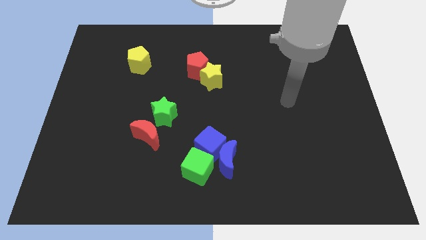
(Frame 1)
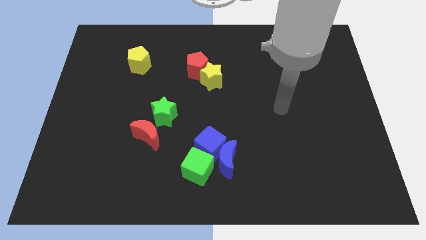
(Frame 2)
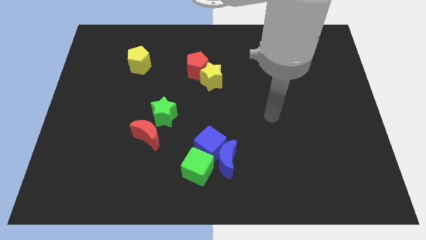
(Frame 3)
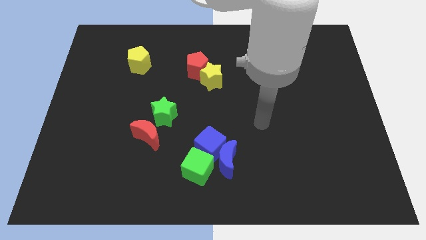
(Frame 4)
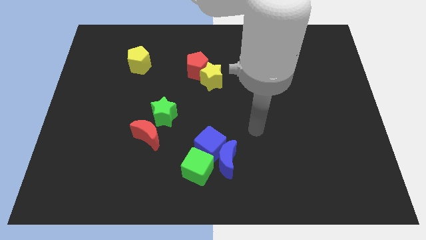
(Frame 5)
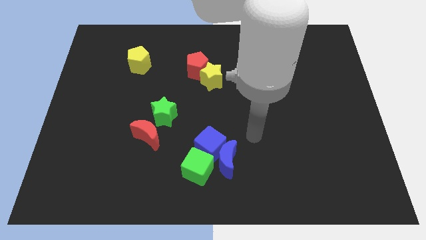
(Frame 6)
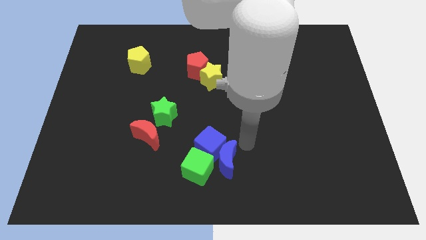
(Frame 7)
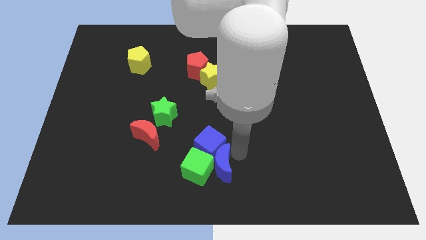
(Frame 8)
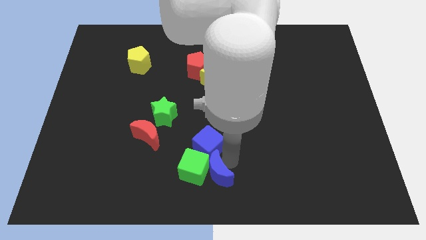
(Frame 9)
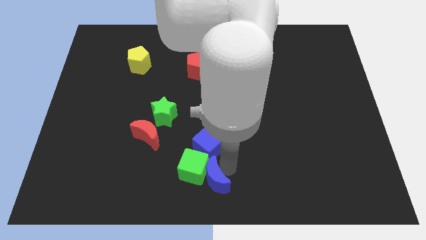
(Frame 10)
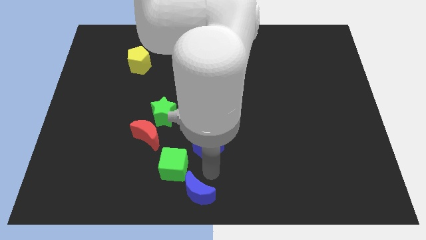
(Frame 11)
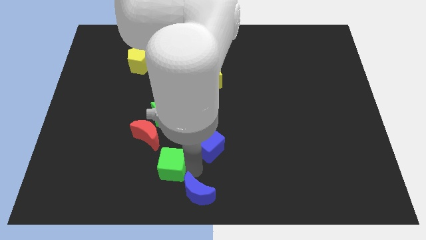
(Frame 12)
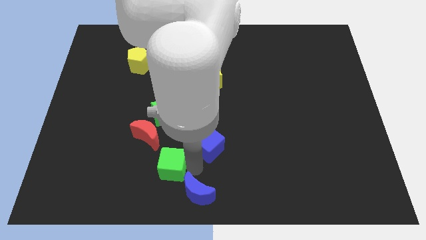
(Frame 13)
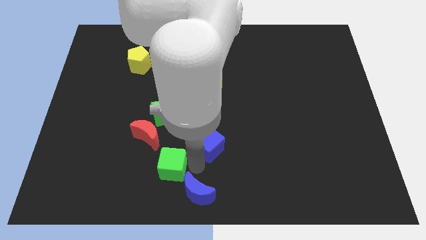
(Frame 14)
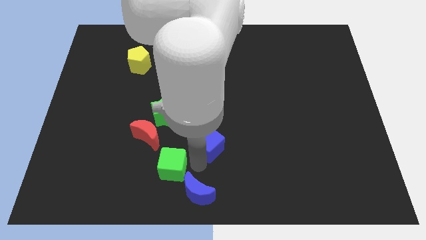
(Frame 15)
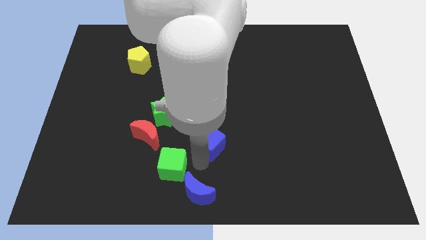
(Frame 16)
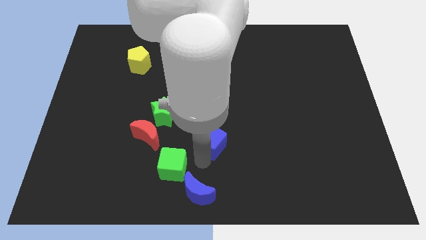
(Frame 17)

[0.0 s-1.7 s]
move the blue cube away from the blue moon and green cube

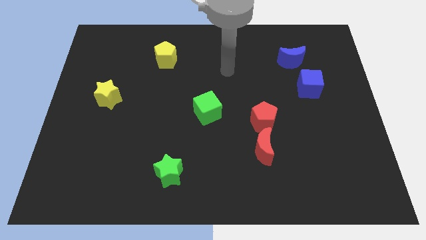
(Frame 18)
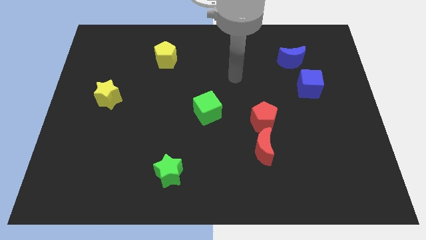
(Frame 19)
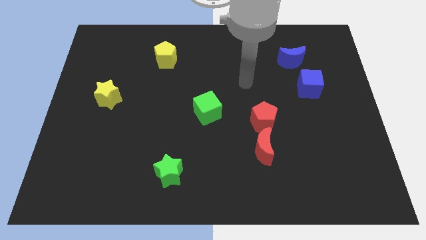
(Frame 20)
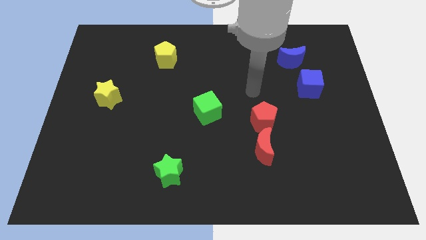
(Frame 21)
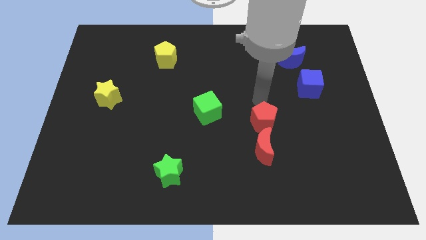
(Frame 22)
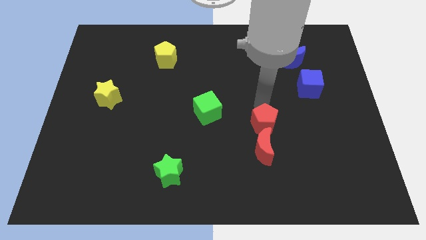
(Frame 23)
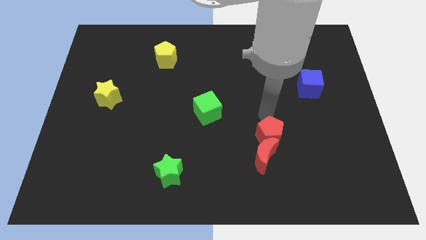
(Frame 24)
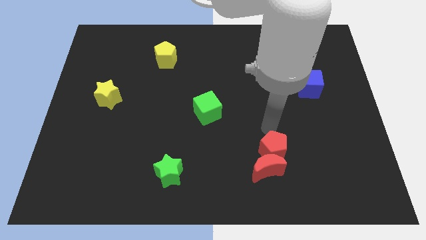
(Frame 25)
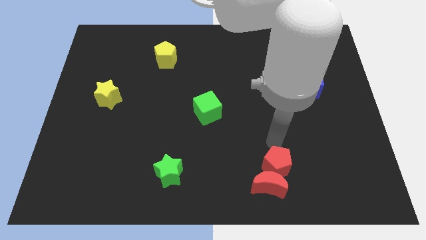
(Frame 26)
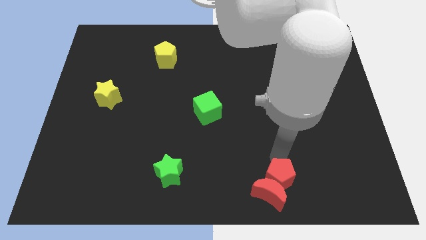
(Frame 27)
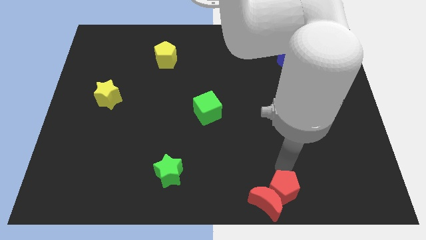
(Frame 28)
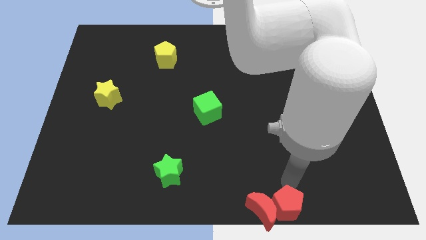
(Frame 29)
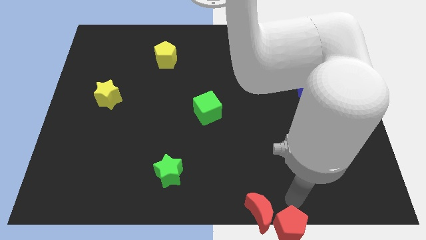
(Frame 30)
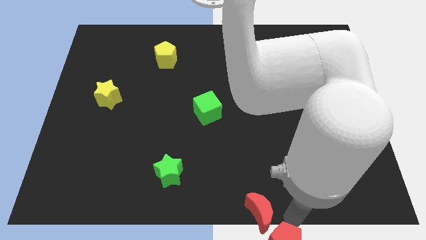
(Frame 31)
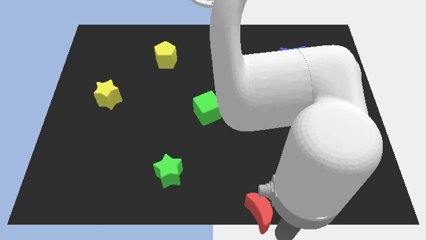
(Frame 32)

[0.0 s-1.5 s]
pull the red moon apart from the red pentagon

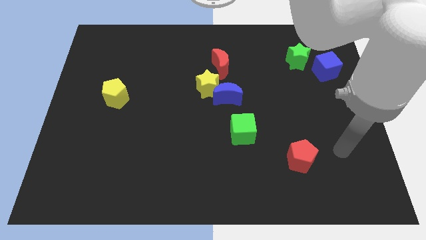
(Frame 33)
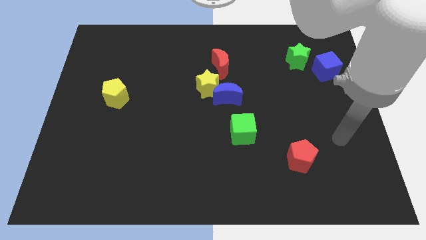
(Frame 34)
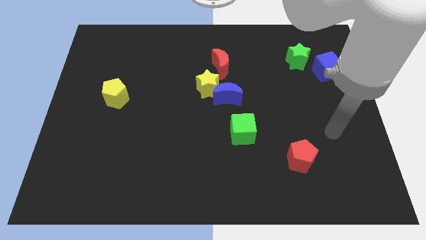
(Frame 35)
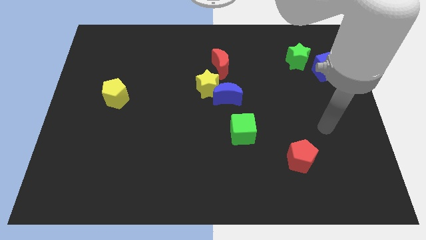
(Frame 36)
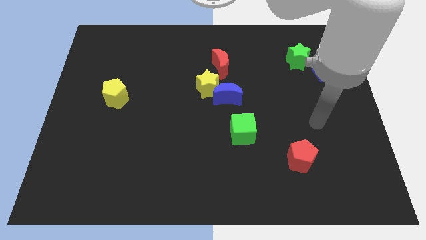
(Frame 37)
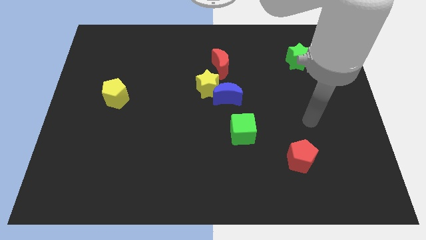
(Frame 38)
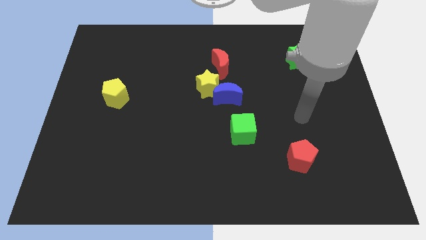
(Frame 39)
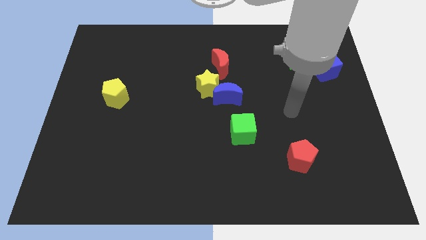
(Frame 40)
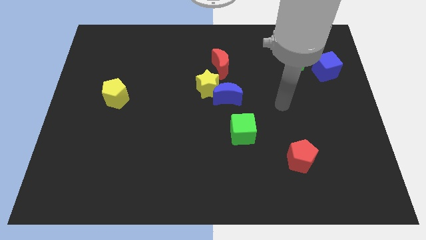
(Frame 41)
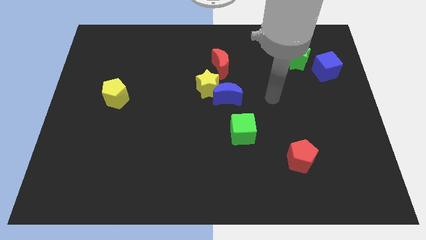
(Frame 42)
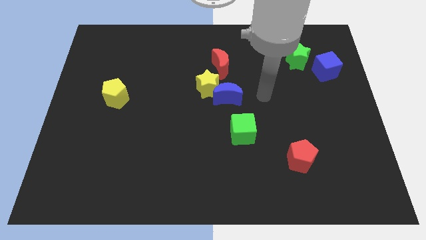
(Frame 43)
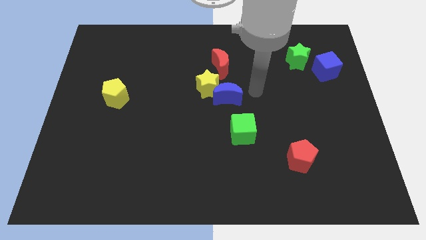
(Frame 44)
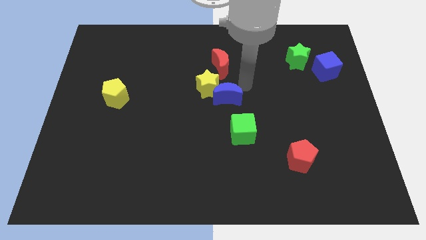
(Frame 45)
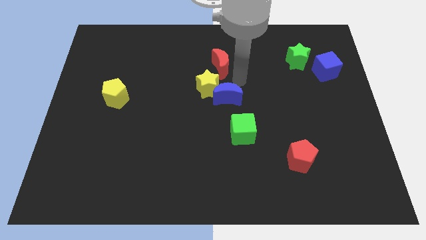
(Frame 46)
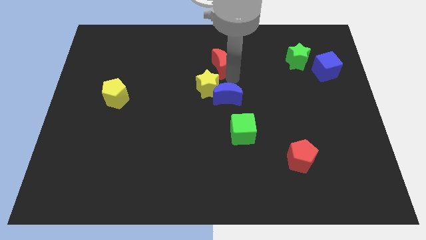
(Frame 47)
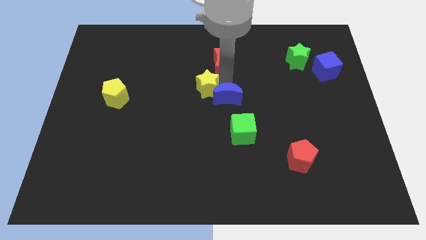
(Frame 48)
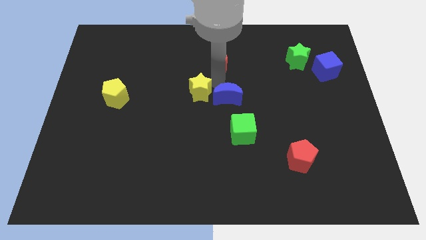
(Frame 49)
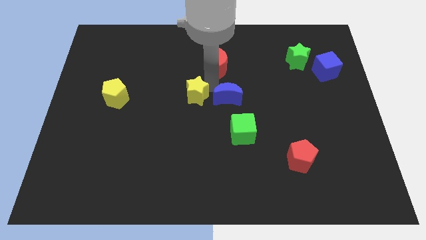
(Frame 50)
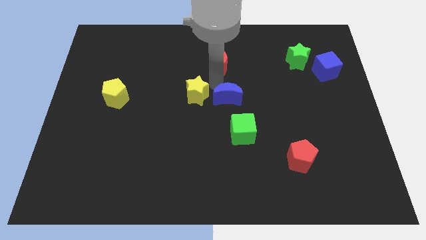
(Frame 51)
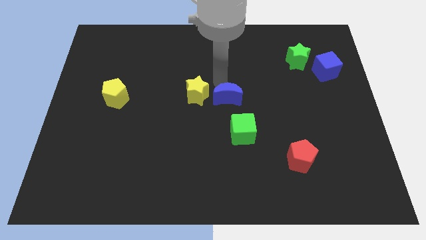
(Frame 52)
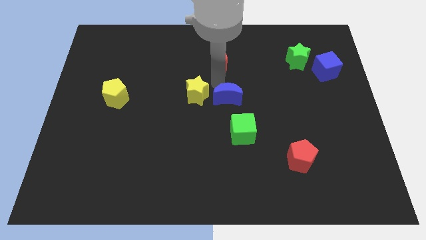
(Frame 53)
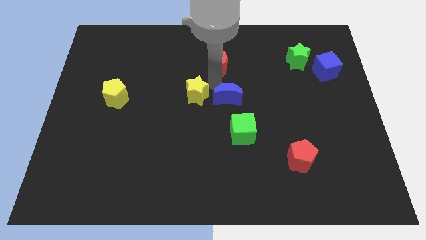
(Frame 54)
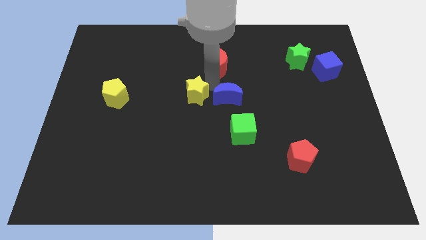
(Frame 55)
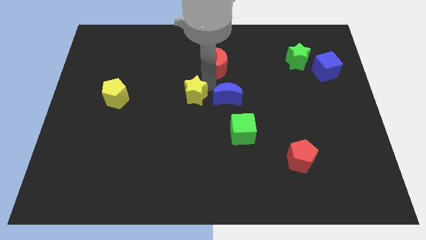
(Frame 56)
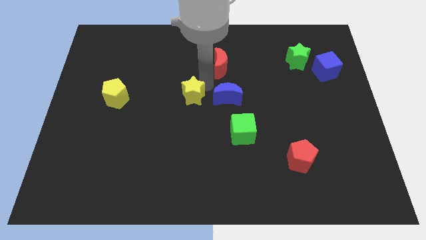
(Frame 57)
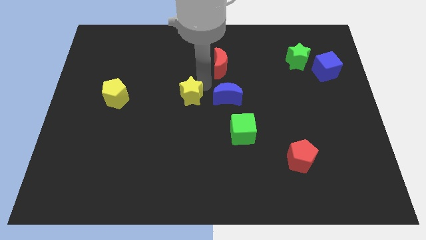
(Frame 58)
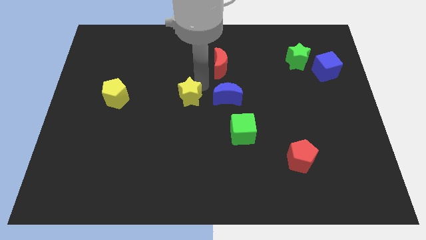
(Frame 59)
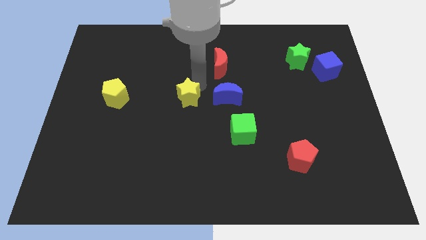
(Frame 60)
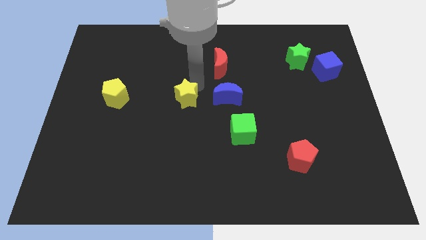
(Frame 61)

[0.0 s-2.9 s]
pull the yellow star apart from the blue moon and red moon

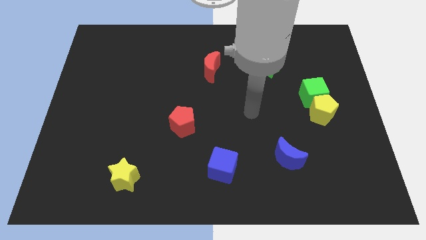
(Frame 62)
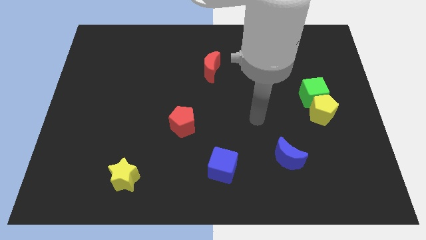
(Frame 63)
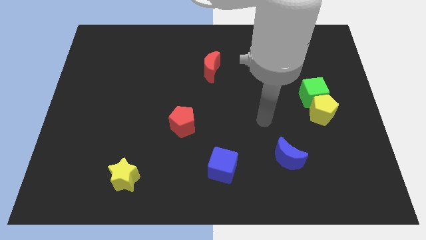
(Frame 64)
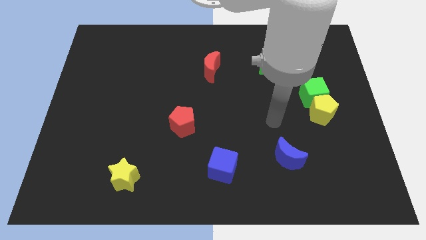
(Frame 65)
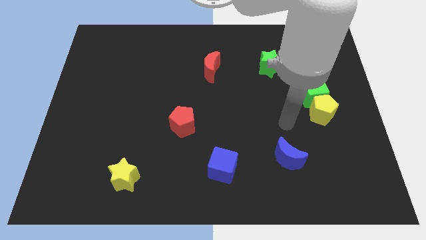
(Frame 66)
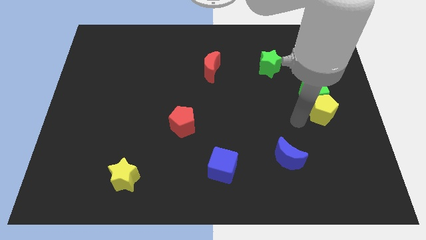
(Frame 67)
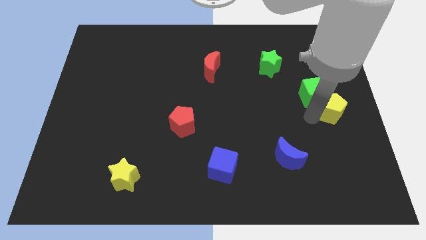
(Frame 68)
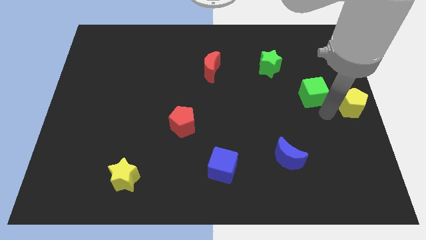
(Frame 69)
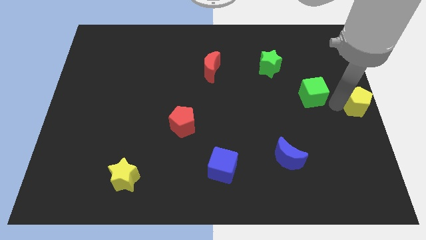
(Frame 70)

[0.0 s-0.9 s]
pull the green cube apart from the yellow pentagon

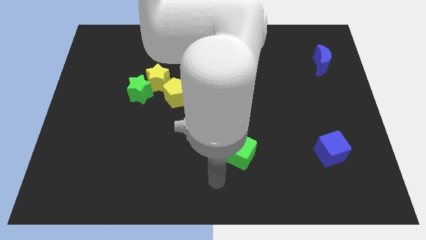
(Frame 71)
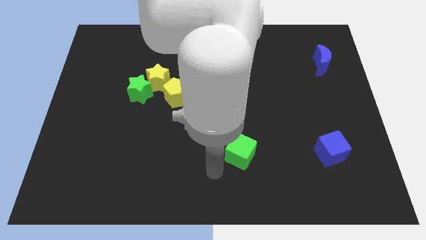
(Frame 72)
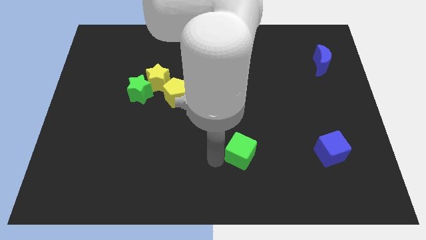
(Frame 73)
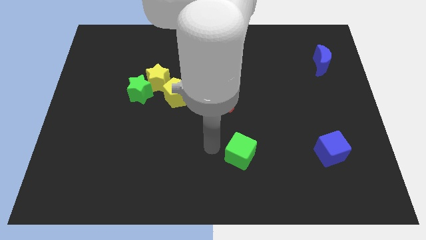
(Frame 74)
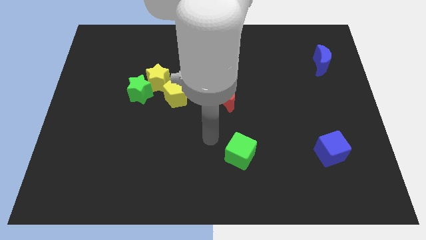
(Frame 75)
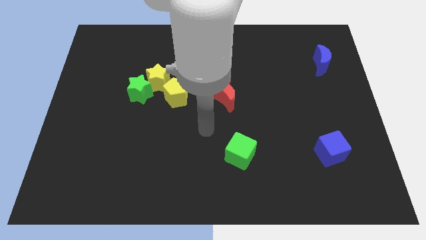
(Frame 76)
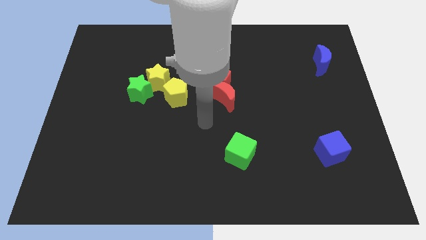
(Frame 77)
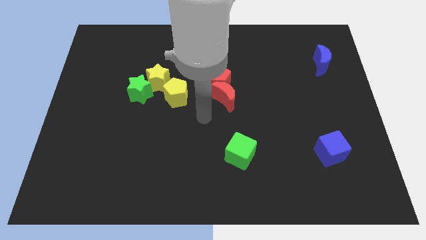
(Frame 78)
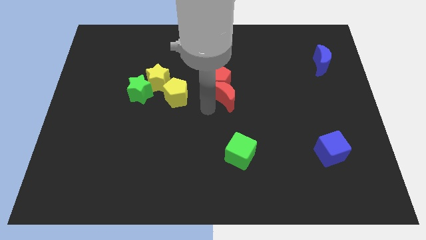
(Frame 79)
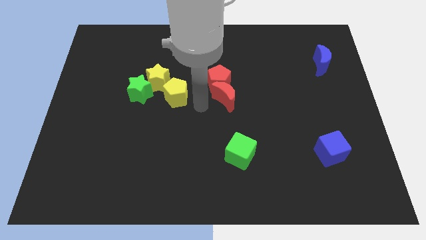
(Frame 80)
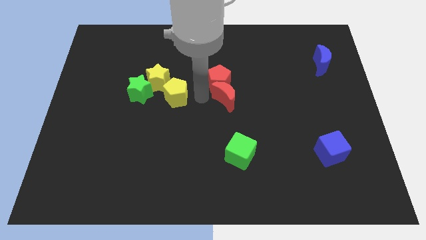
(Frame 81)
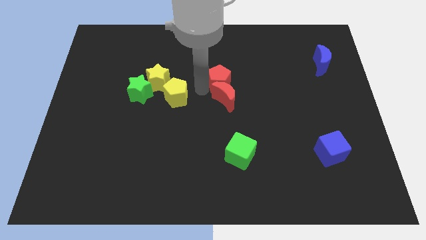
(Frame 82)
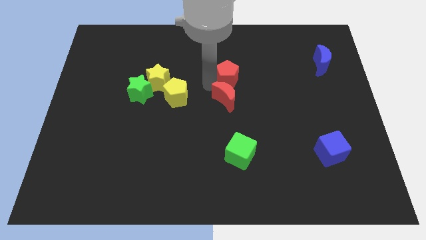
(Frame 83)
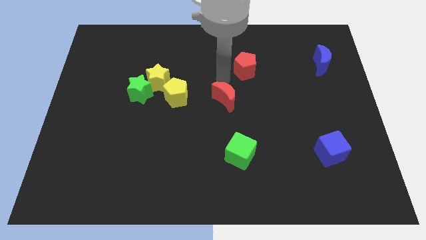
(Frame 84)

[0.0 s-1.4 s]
separate the red moon from the red pentagon

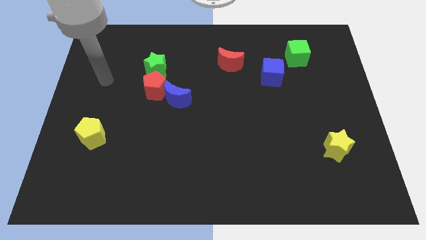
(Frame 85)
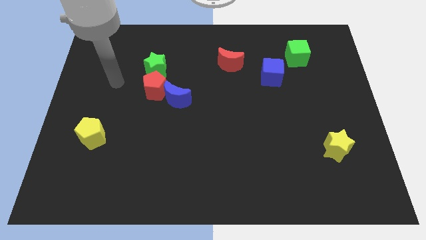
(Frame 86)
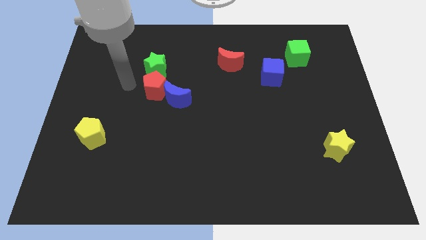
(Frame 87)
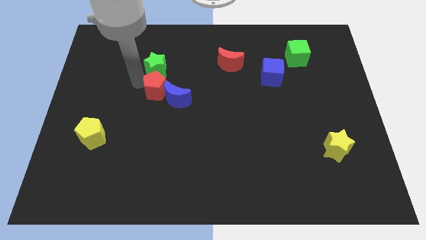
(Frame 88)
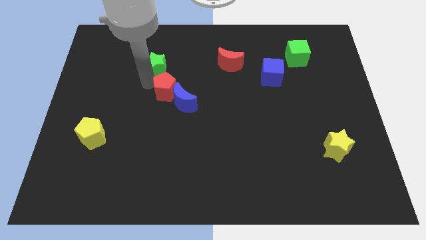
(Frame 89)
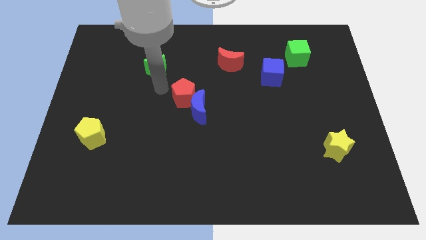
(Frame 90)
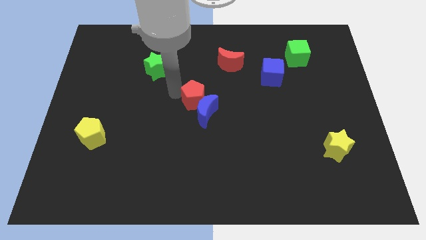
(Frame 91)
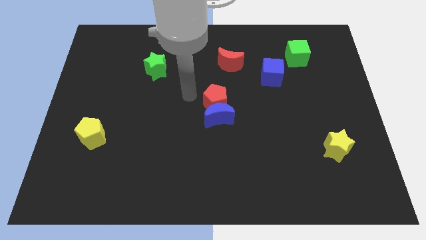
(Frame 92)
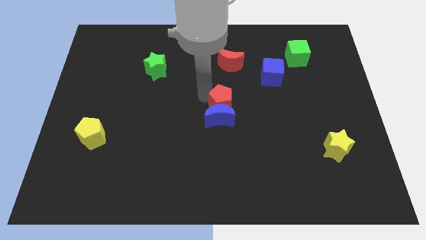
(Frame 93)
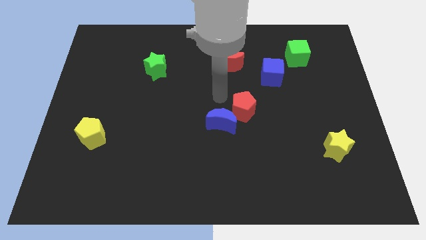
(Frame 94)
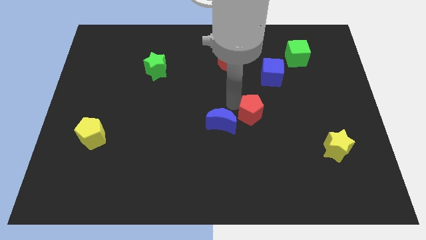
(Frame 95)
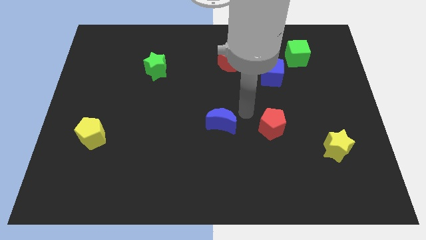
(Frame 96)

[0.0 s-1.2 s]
move the blue moon away from the red pentagon
